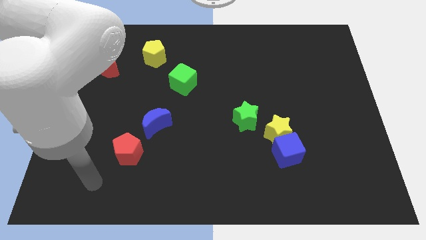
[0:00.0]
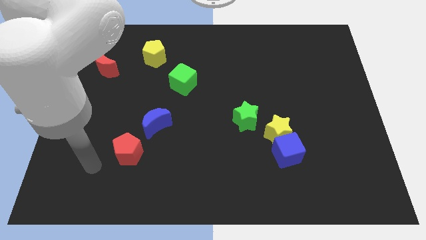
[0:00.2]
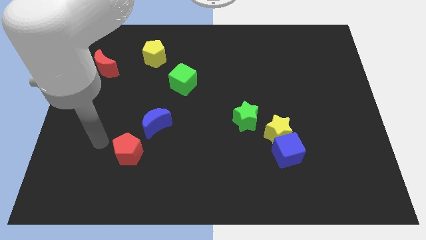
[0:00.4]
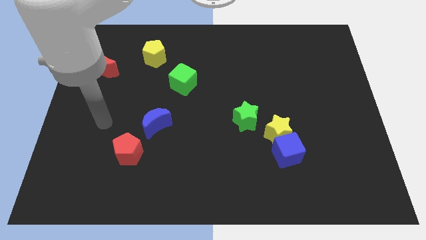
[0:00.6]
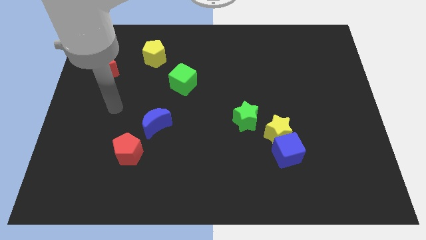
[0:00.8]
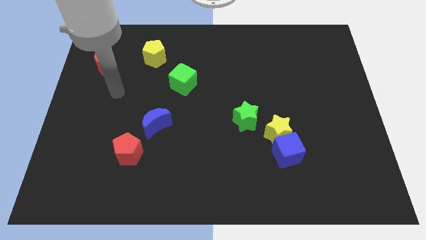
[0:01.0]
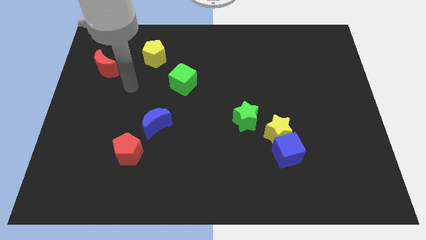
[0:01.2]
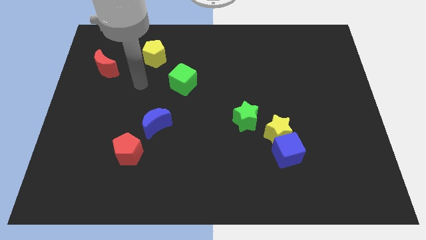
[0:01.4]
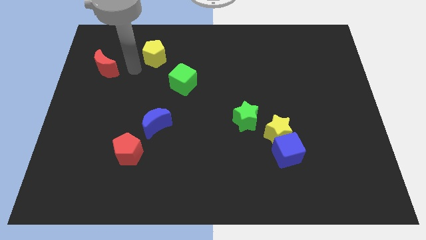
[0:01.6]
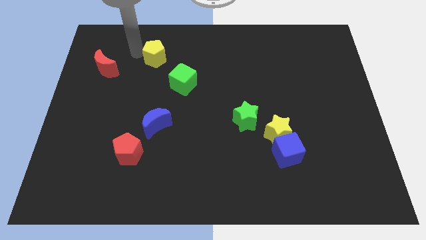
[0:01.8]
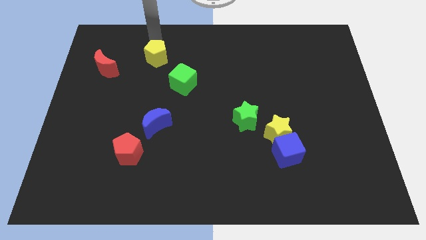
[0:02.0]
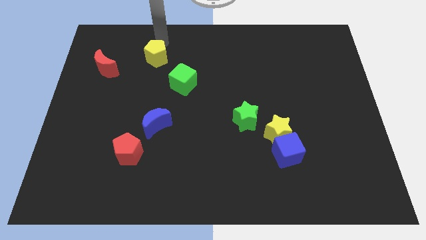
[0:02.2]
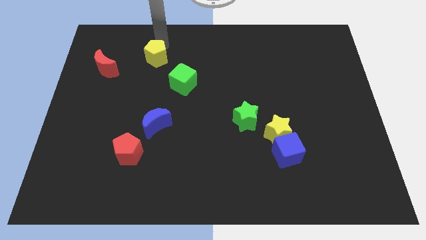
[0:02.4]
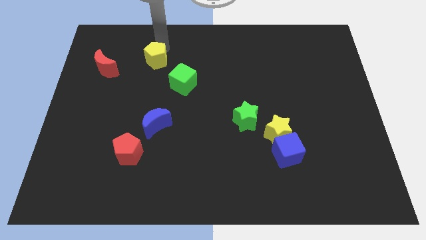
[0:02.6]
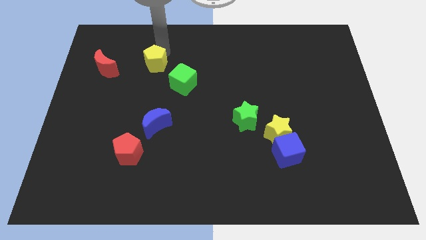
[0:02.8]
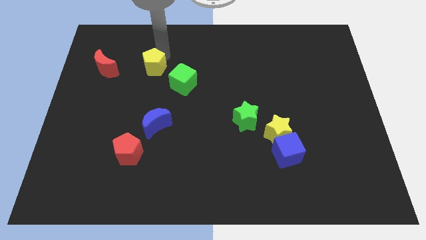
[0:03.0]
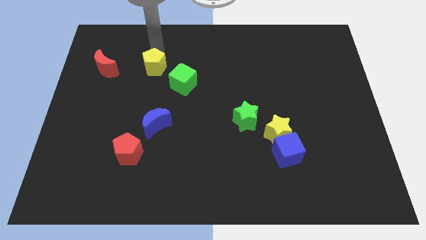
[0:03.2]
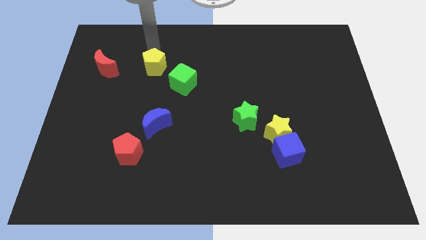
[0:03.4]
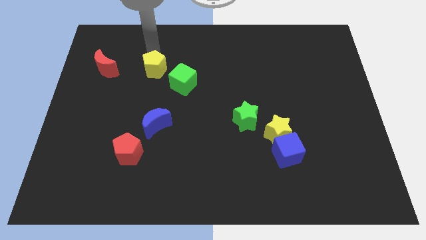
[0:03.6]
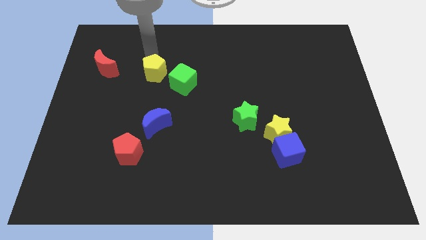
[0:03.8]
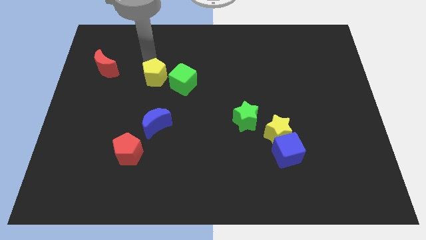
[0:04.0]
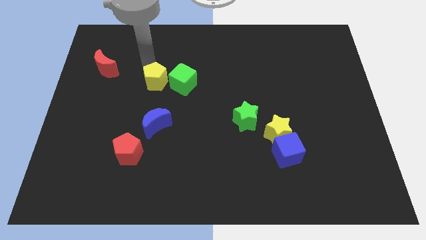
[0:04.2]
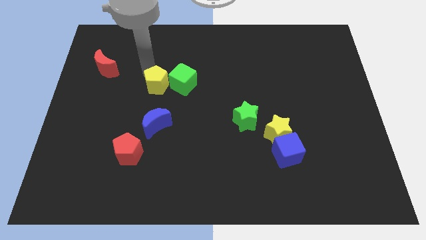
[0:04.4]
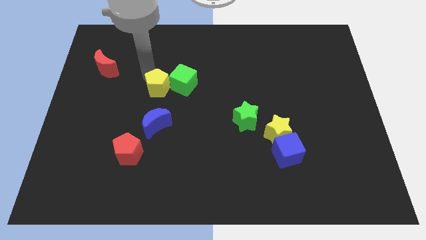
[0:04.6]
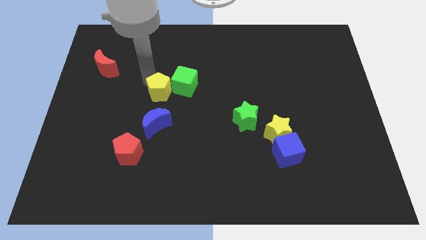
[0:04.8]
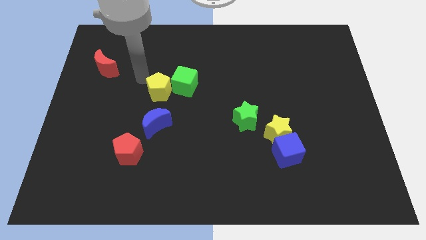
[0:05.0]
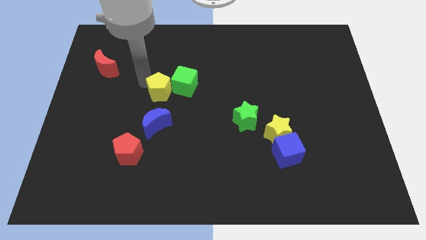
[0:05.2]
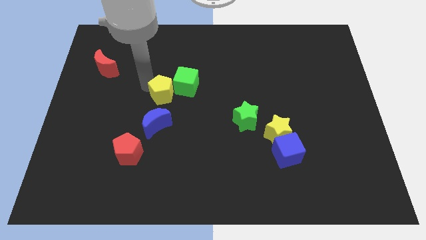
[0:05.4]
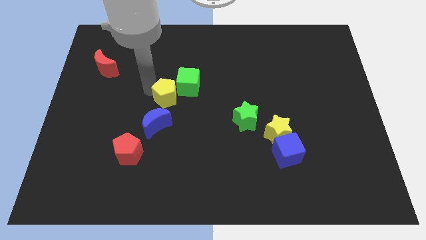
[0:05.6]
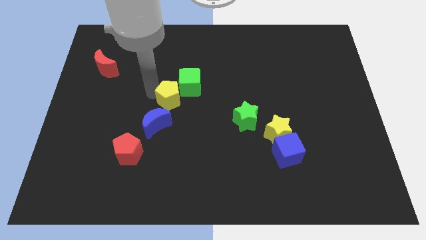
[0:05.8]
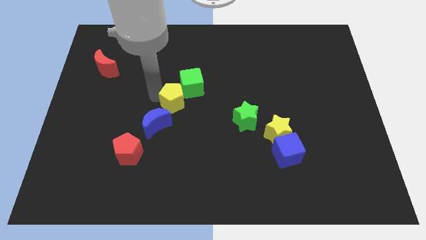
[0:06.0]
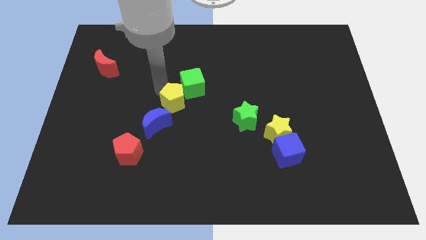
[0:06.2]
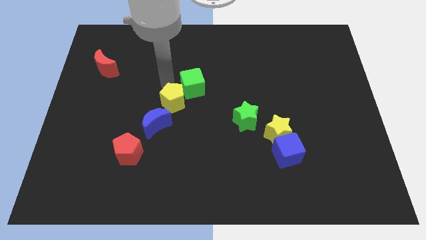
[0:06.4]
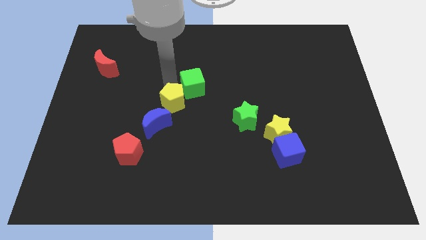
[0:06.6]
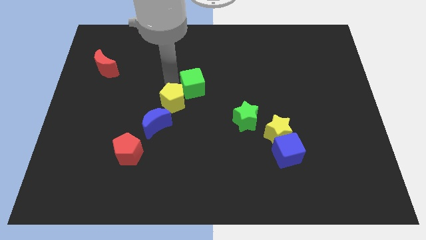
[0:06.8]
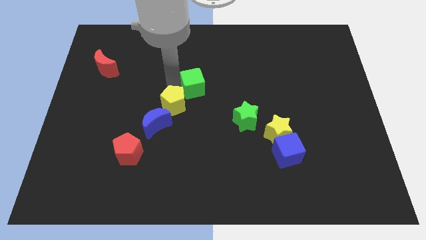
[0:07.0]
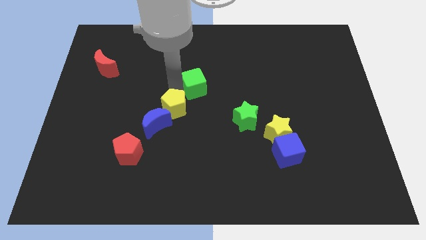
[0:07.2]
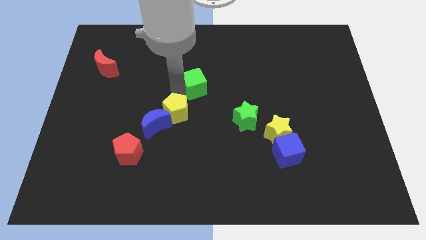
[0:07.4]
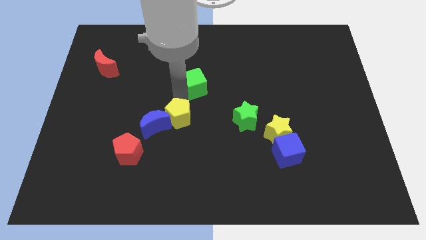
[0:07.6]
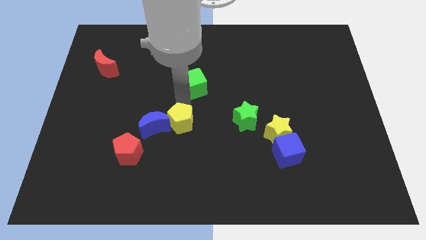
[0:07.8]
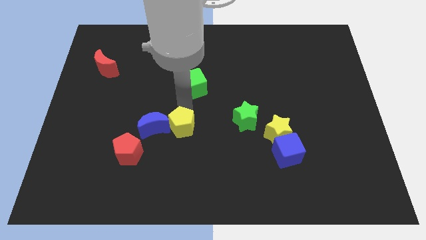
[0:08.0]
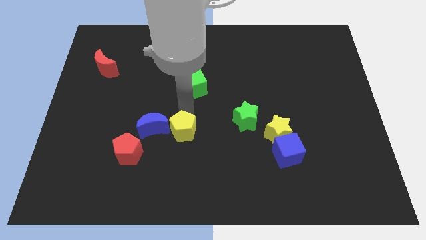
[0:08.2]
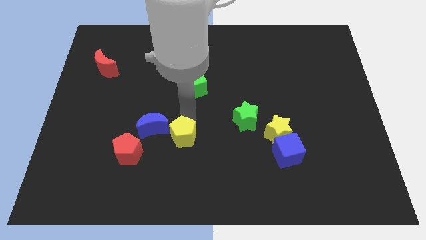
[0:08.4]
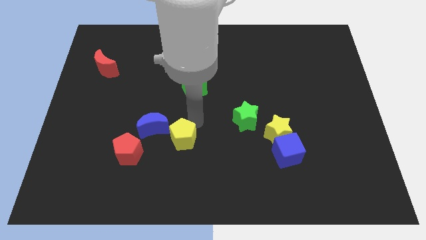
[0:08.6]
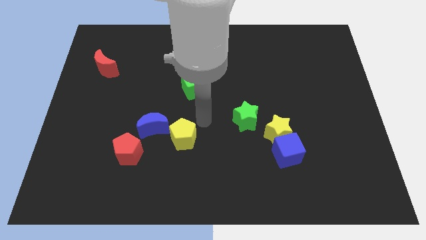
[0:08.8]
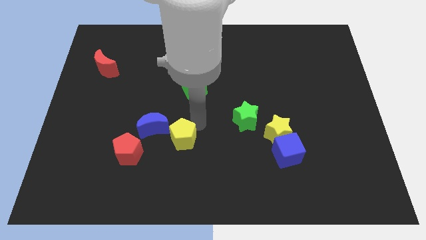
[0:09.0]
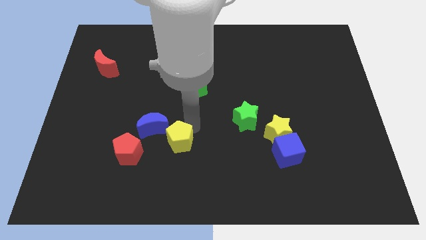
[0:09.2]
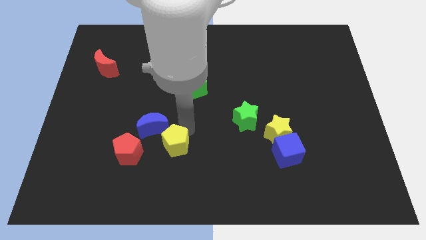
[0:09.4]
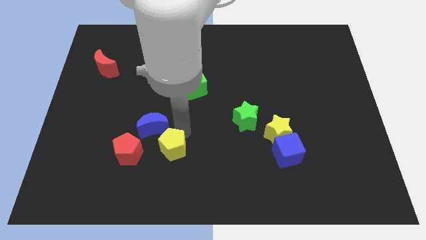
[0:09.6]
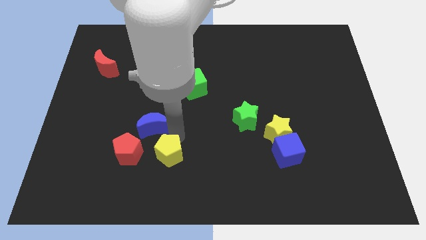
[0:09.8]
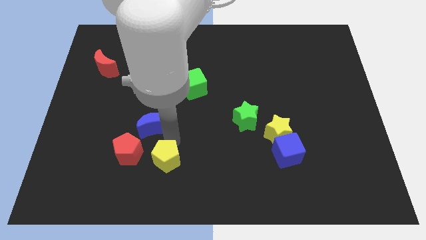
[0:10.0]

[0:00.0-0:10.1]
move the yellow pentagon to the bottom right of the red pentagon
